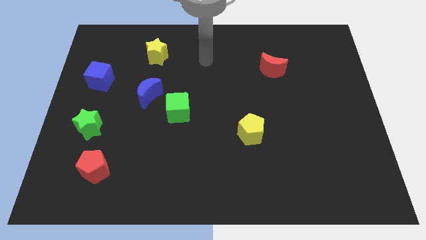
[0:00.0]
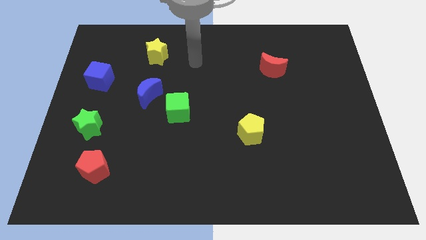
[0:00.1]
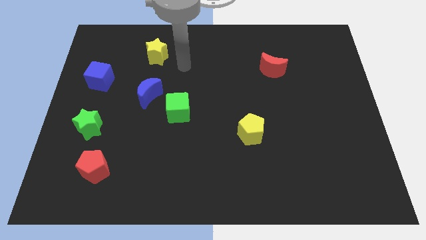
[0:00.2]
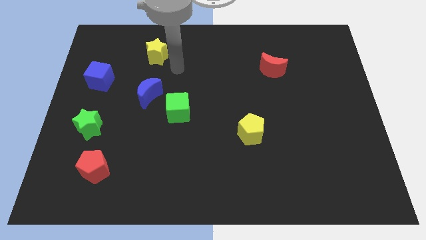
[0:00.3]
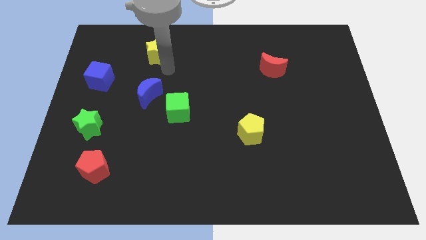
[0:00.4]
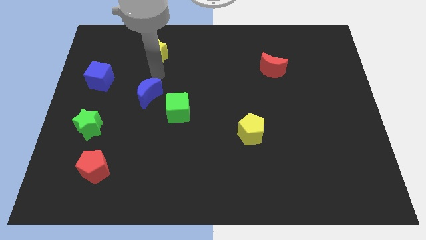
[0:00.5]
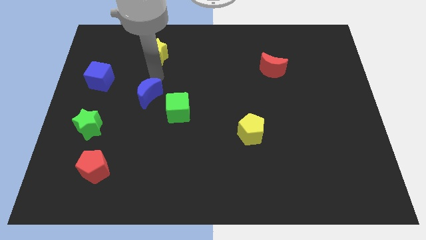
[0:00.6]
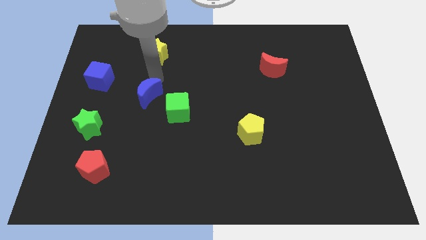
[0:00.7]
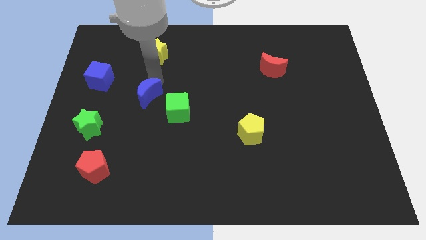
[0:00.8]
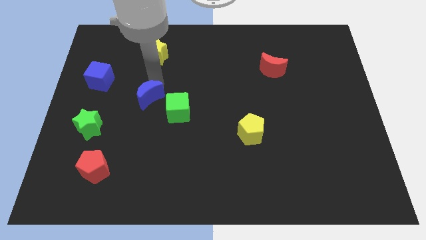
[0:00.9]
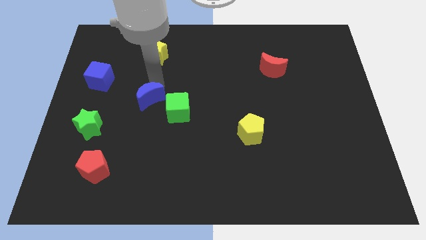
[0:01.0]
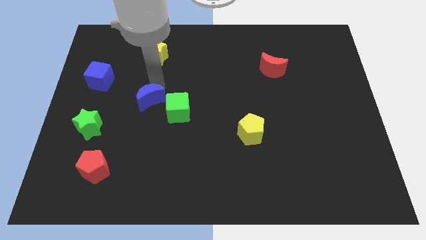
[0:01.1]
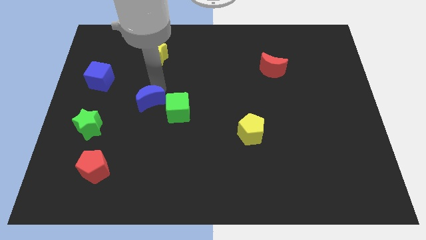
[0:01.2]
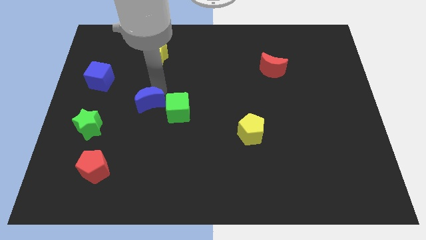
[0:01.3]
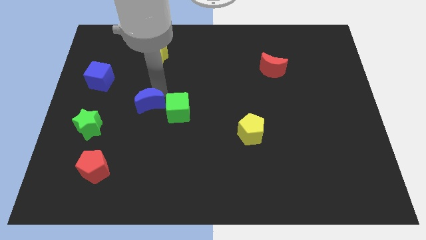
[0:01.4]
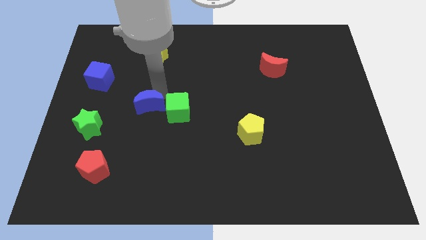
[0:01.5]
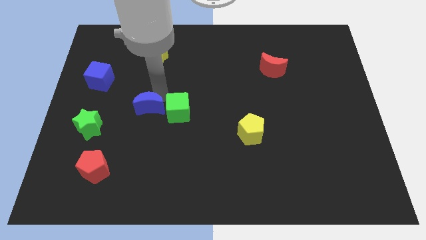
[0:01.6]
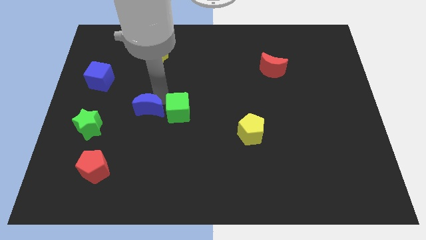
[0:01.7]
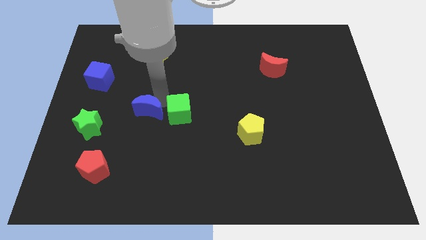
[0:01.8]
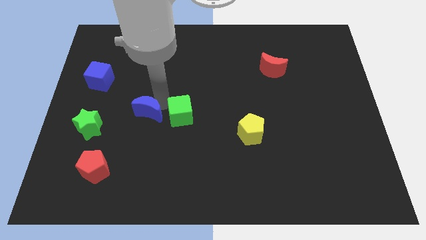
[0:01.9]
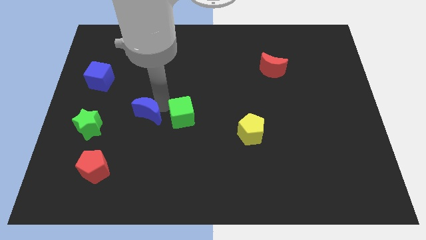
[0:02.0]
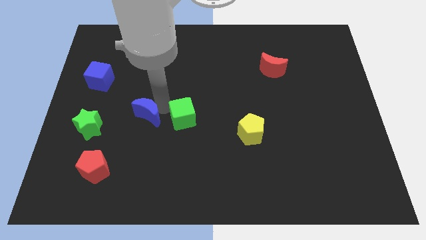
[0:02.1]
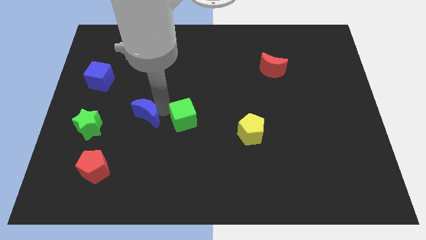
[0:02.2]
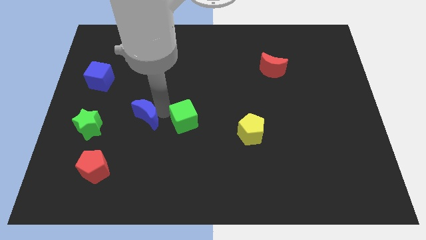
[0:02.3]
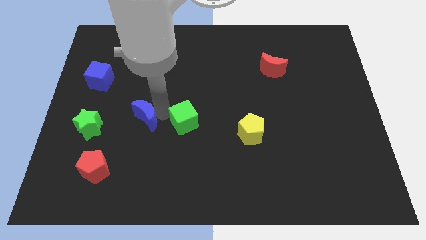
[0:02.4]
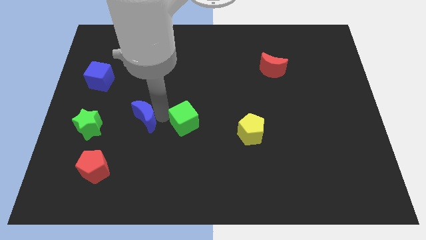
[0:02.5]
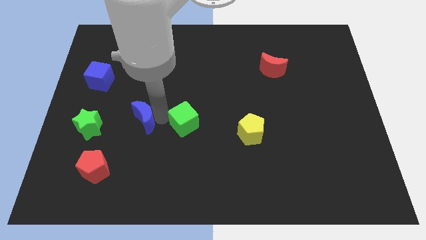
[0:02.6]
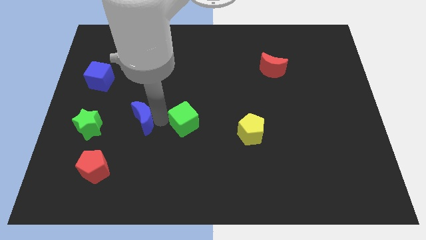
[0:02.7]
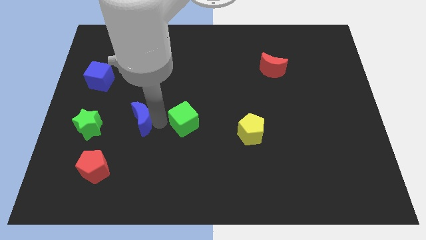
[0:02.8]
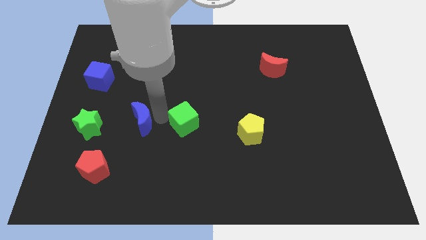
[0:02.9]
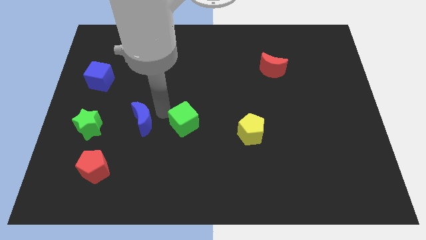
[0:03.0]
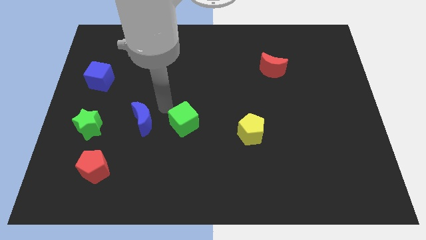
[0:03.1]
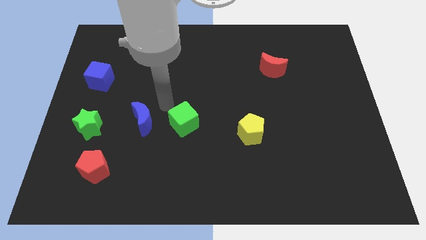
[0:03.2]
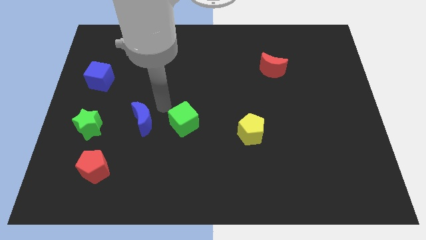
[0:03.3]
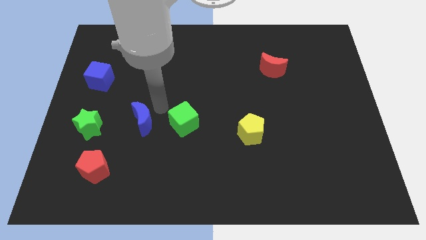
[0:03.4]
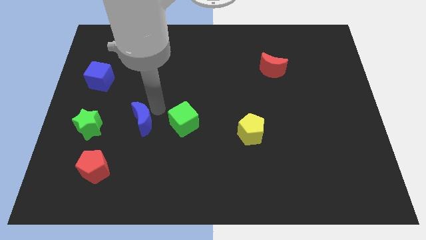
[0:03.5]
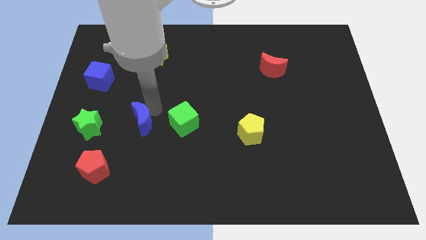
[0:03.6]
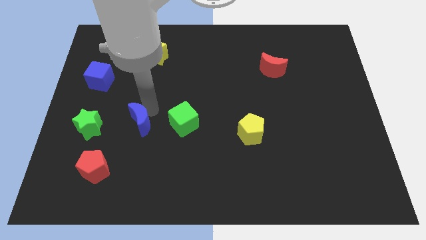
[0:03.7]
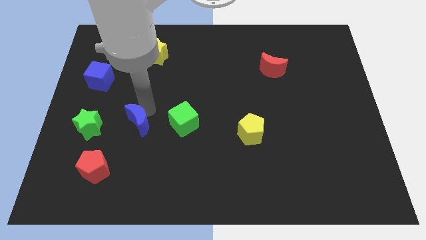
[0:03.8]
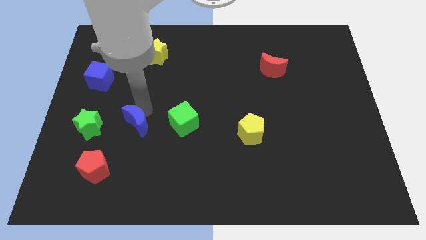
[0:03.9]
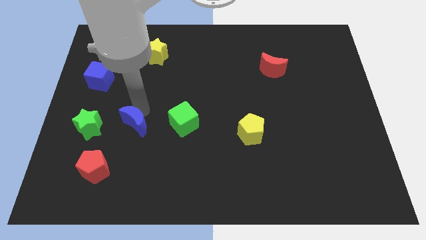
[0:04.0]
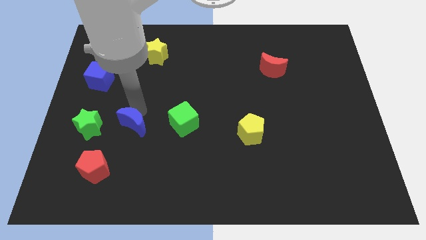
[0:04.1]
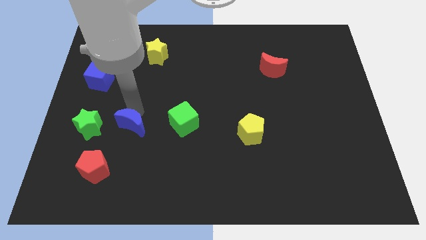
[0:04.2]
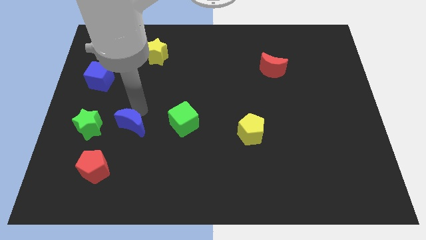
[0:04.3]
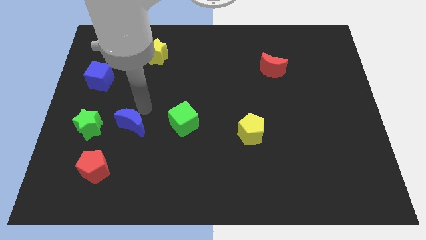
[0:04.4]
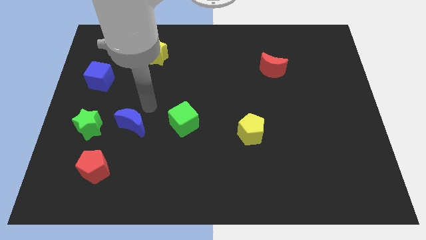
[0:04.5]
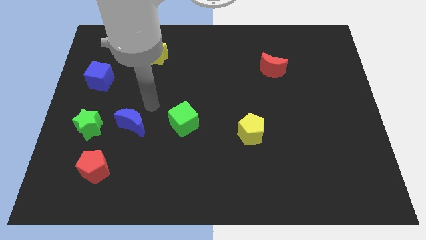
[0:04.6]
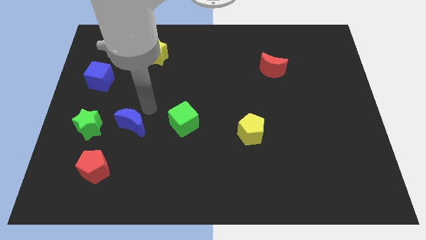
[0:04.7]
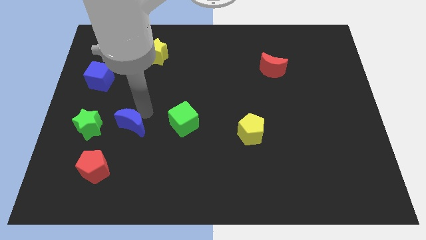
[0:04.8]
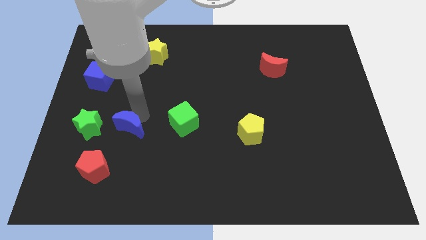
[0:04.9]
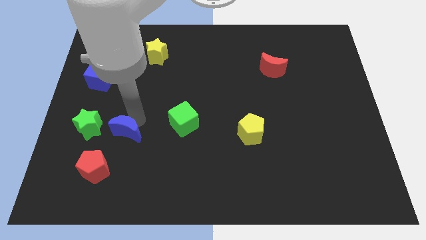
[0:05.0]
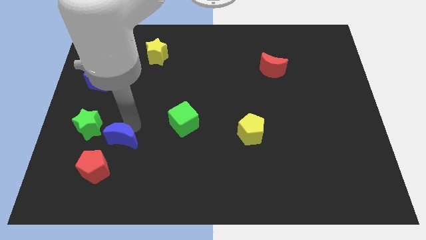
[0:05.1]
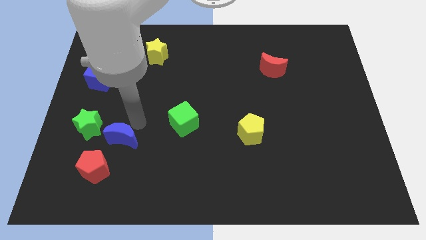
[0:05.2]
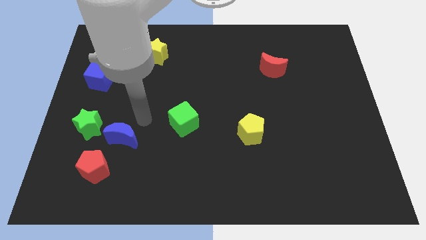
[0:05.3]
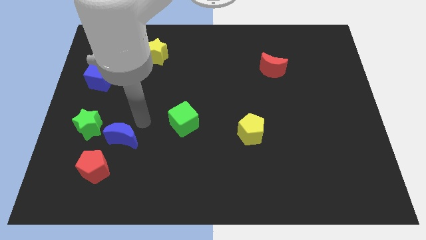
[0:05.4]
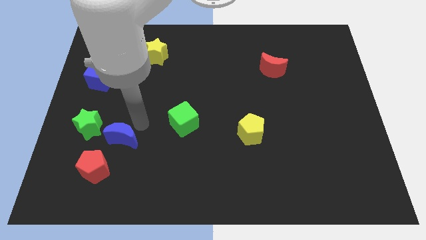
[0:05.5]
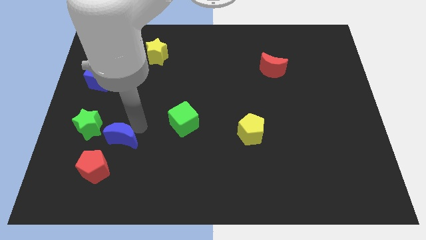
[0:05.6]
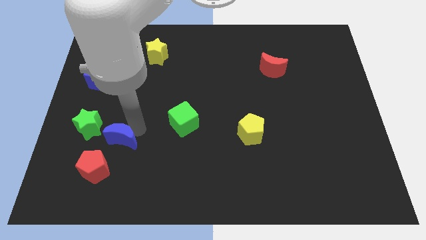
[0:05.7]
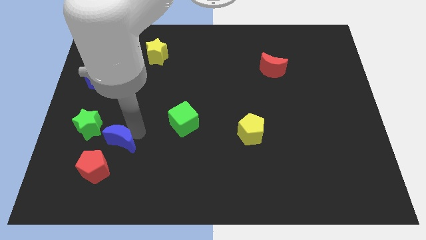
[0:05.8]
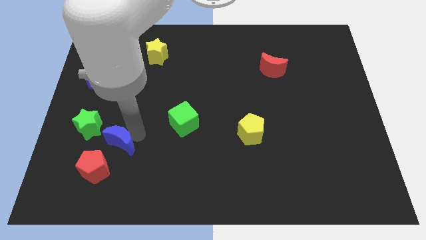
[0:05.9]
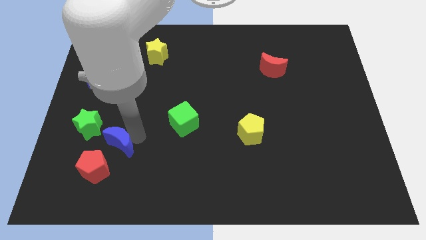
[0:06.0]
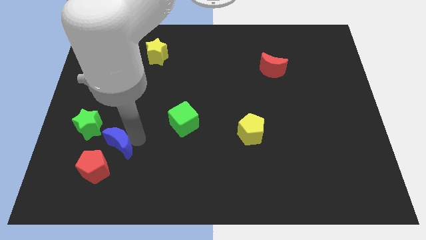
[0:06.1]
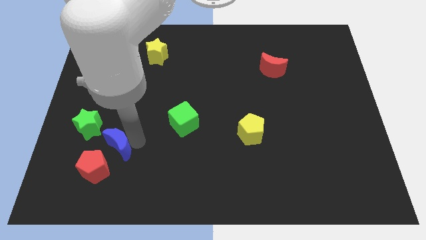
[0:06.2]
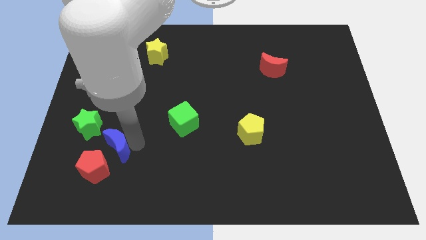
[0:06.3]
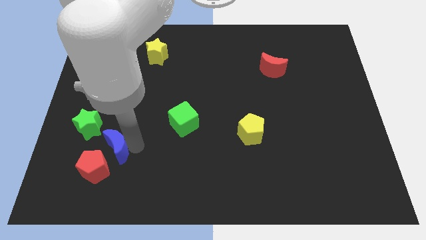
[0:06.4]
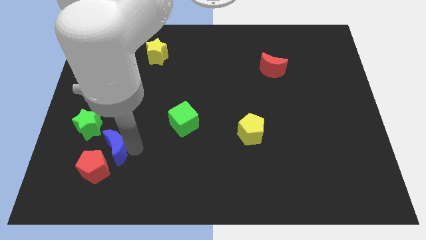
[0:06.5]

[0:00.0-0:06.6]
put the blue moon next to the red pentagon

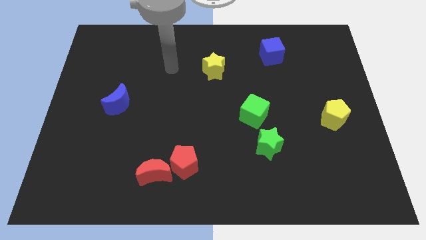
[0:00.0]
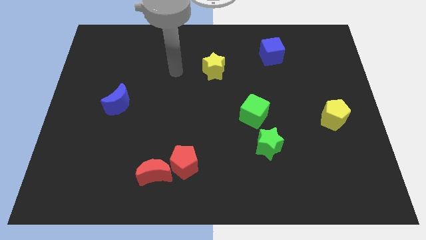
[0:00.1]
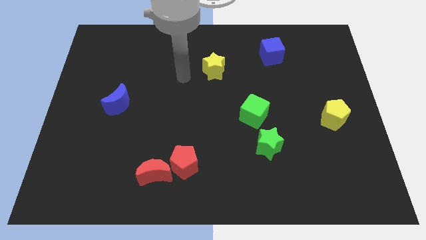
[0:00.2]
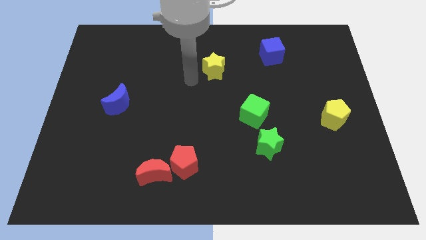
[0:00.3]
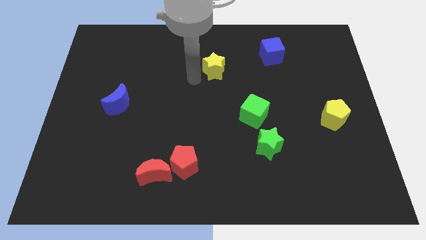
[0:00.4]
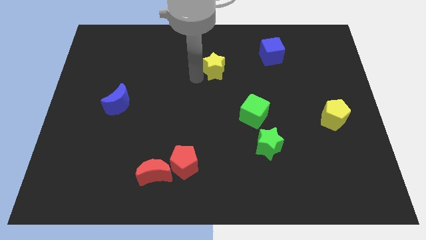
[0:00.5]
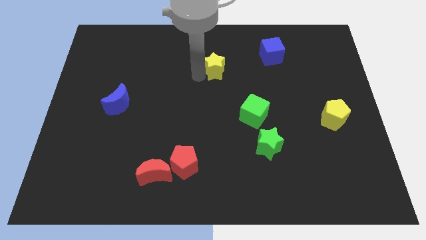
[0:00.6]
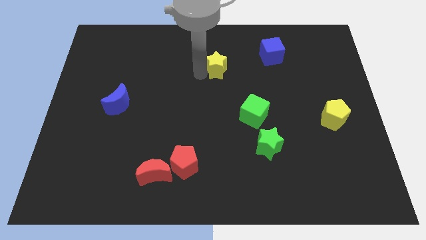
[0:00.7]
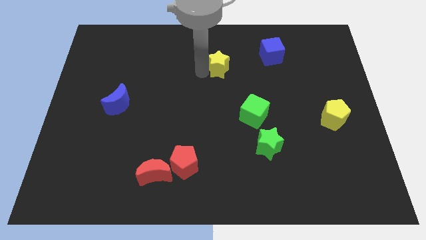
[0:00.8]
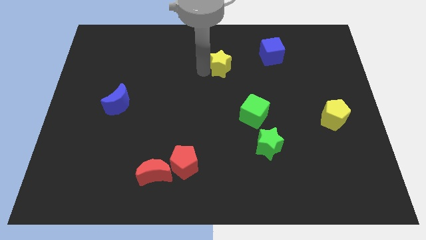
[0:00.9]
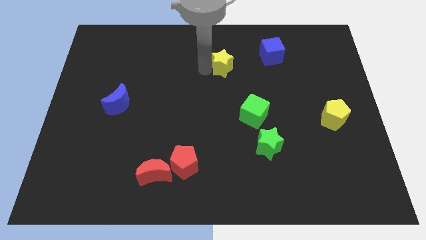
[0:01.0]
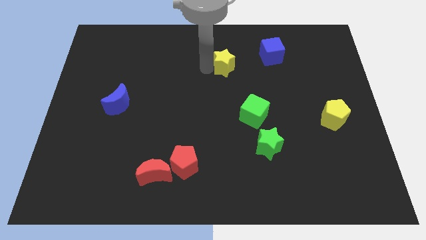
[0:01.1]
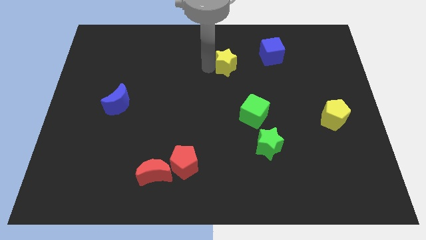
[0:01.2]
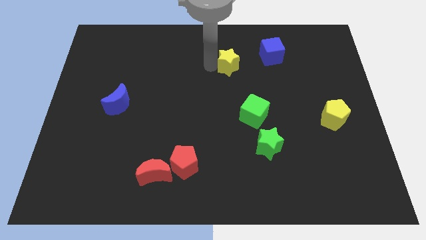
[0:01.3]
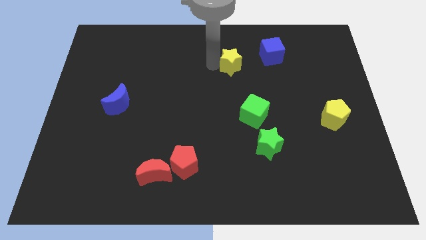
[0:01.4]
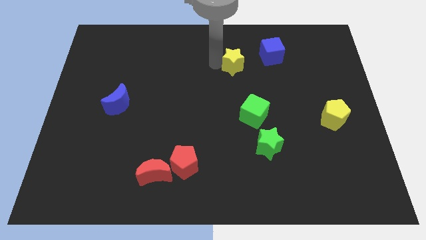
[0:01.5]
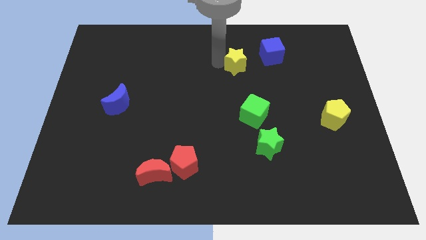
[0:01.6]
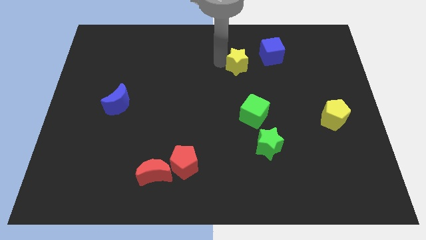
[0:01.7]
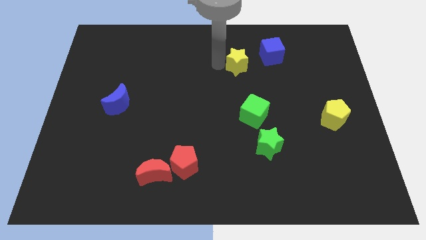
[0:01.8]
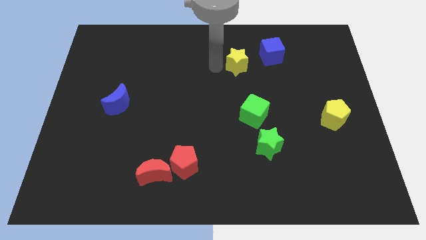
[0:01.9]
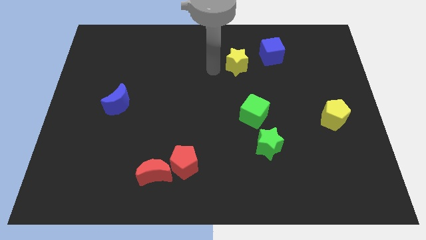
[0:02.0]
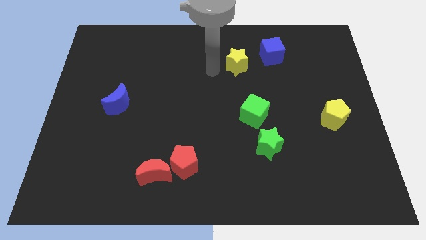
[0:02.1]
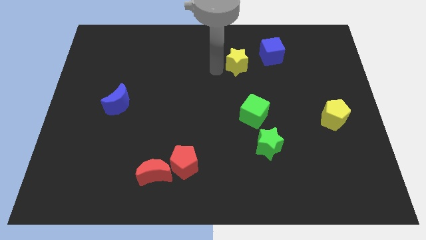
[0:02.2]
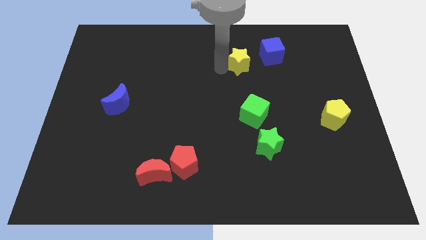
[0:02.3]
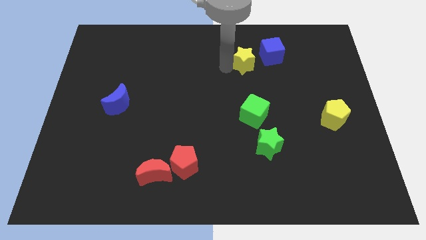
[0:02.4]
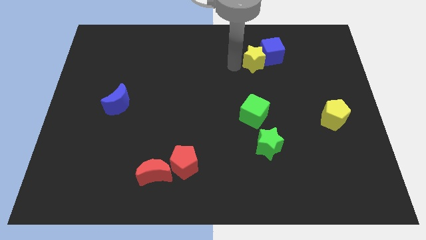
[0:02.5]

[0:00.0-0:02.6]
put the yellow star close to the blue cube
